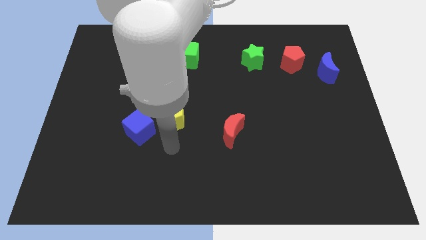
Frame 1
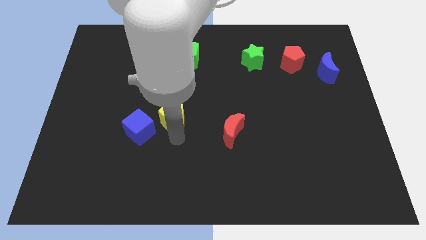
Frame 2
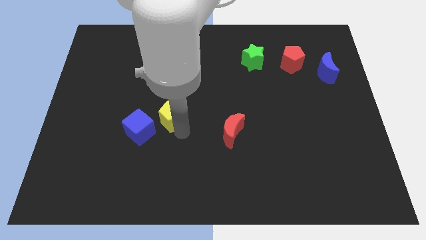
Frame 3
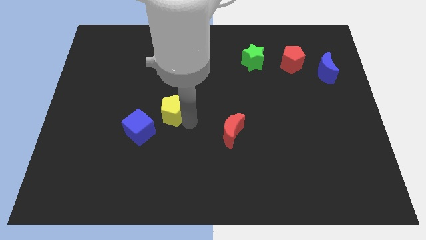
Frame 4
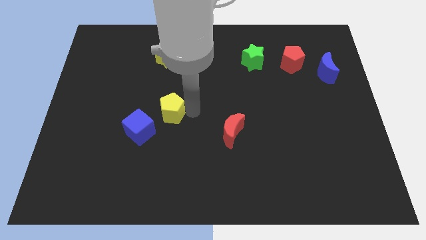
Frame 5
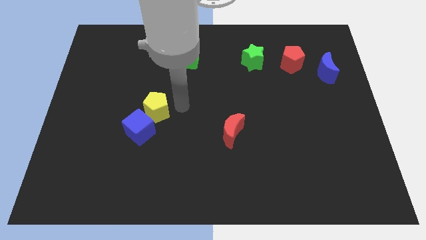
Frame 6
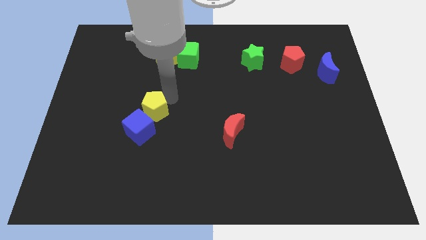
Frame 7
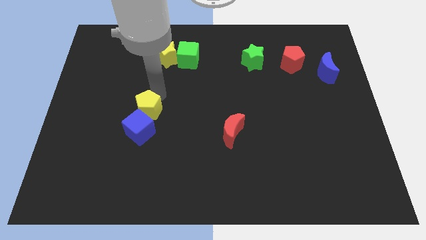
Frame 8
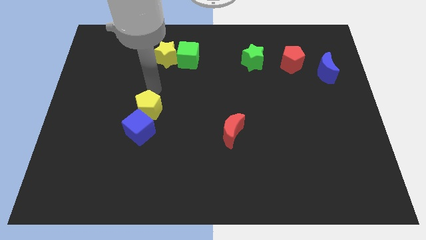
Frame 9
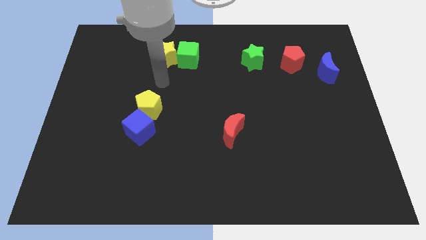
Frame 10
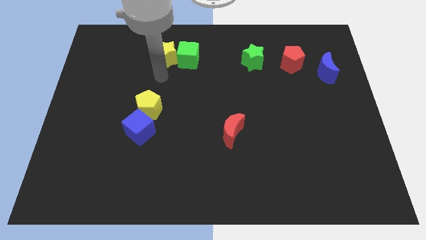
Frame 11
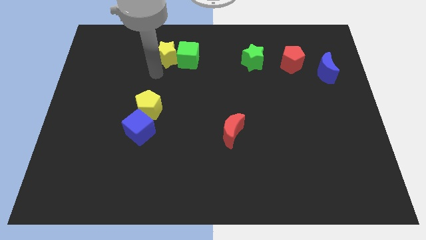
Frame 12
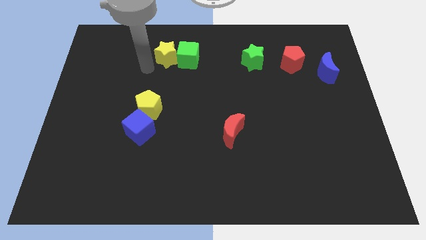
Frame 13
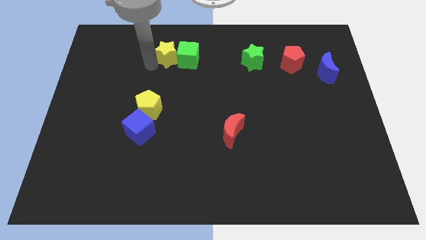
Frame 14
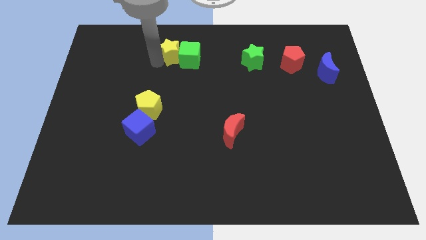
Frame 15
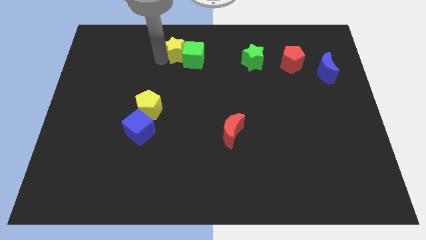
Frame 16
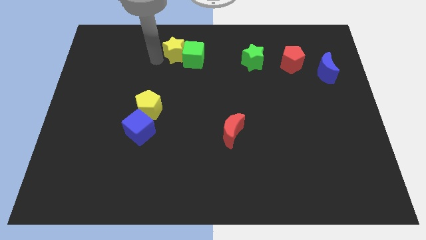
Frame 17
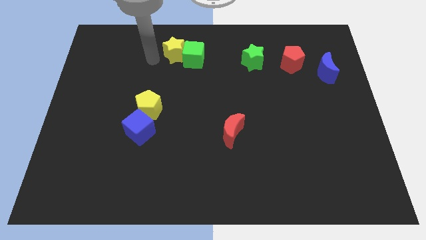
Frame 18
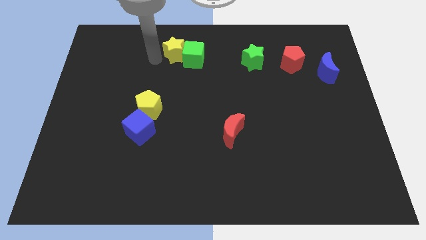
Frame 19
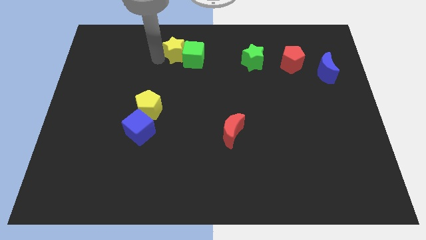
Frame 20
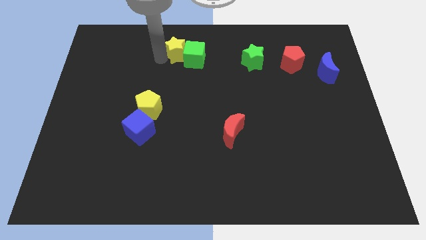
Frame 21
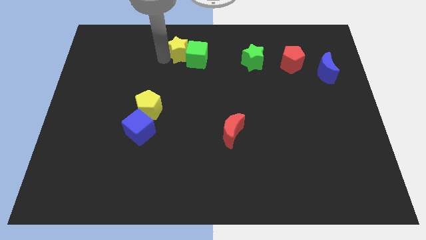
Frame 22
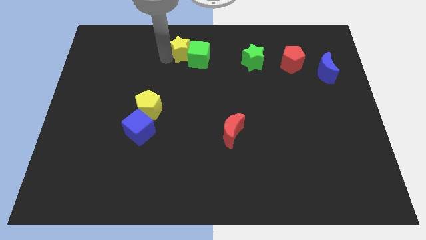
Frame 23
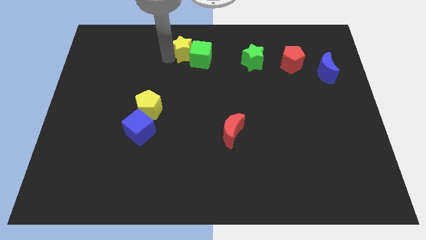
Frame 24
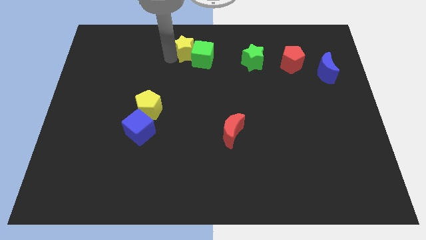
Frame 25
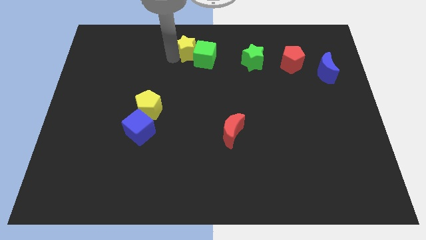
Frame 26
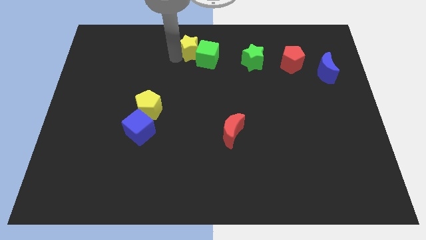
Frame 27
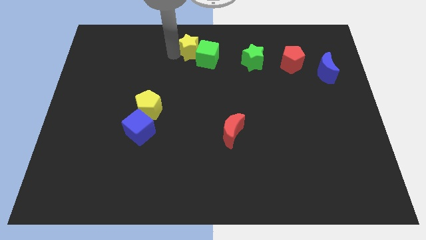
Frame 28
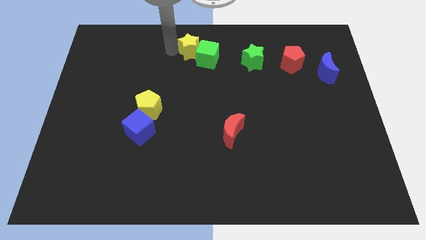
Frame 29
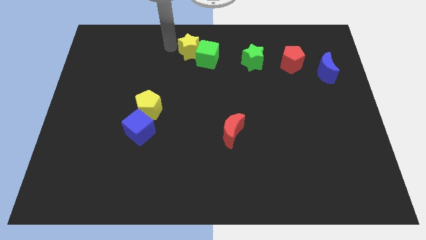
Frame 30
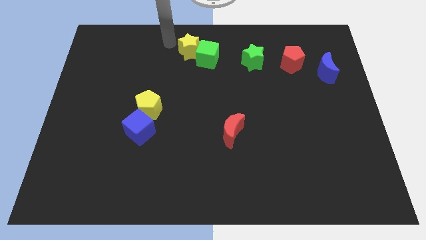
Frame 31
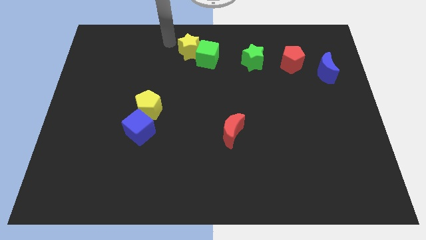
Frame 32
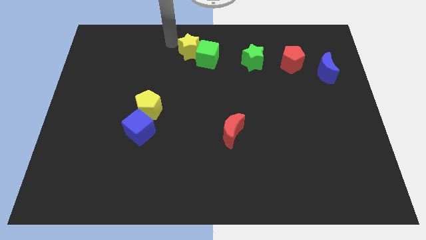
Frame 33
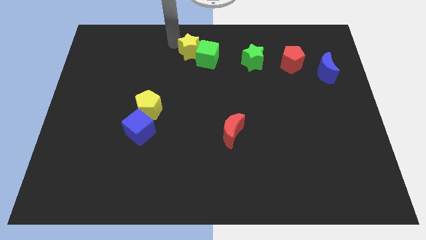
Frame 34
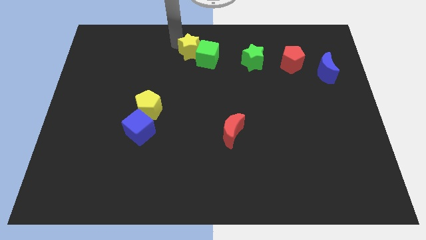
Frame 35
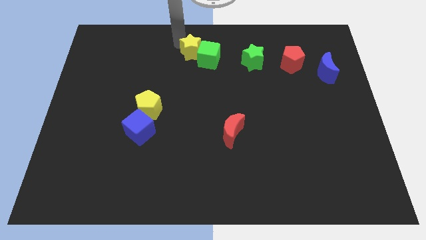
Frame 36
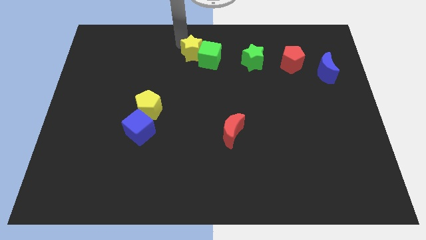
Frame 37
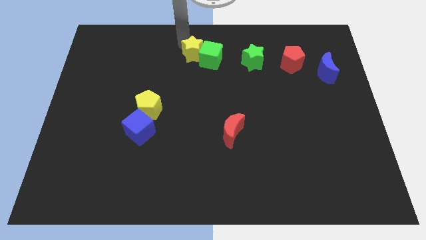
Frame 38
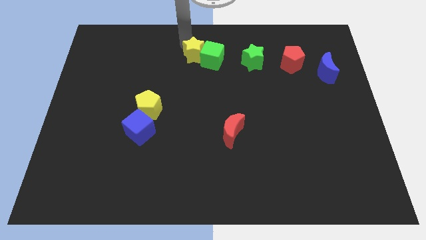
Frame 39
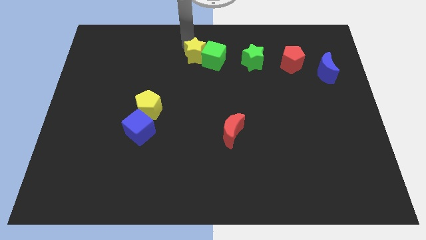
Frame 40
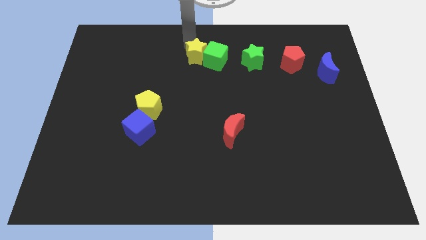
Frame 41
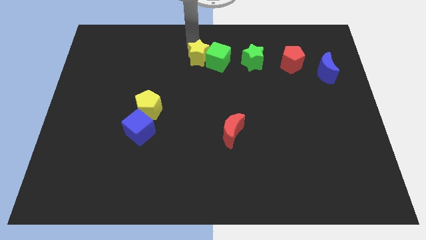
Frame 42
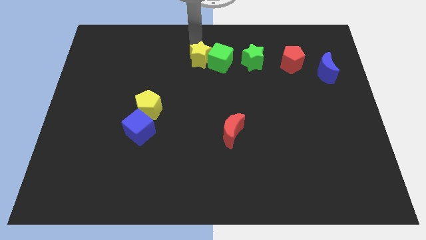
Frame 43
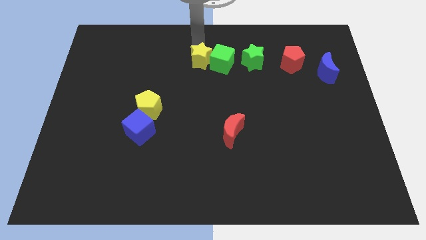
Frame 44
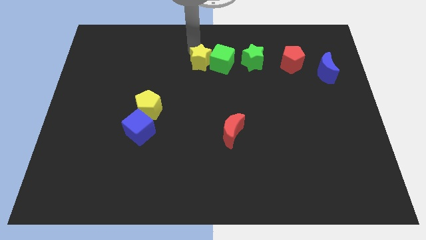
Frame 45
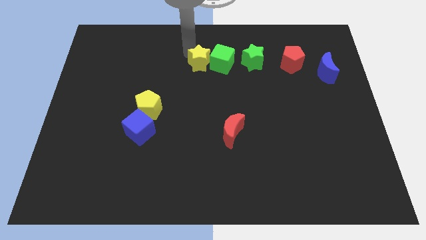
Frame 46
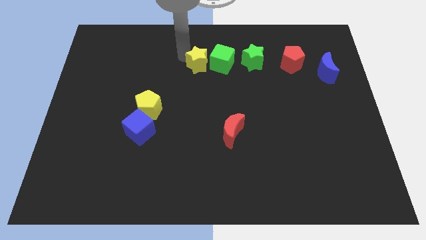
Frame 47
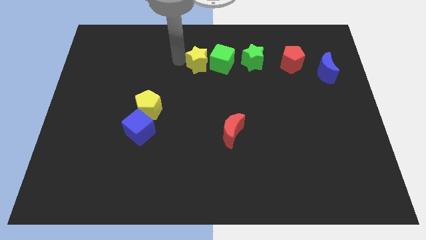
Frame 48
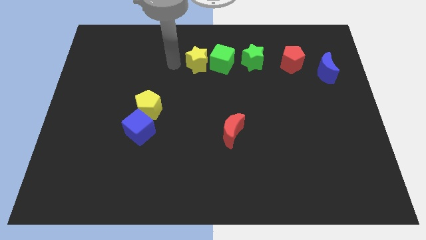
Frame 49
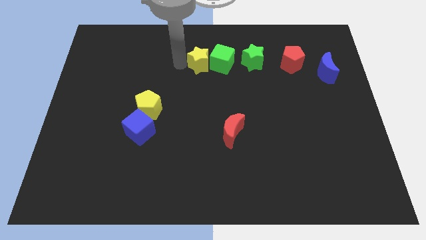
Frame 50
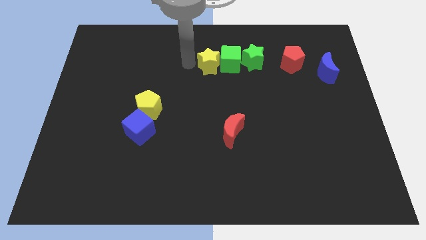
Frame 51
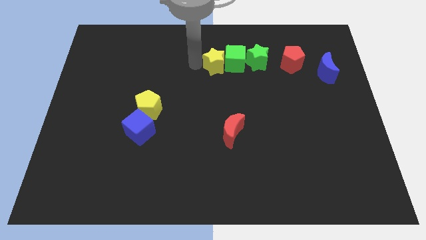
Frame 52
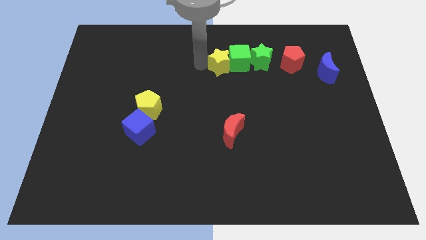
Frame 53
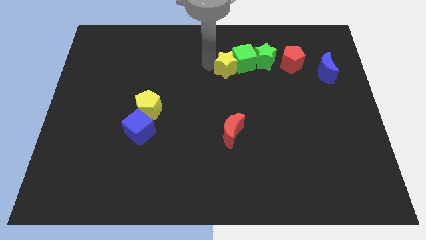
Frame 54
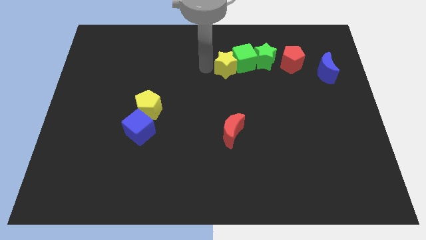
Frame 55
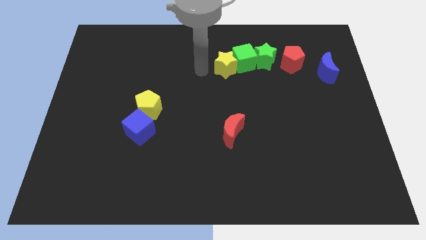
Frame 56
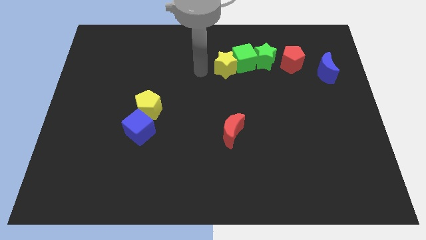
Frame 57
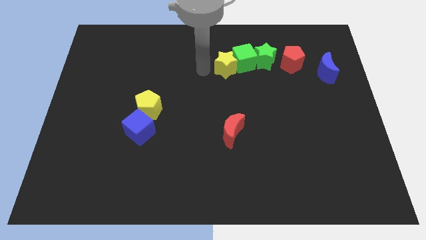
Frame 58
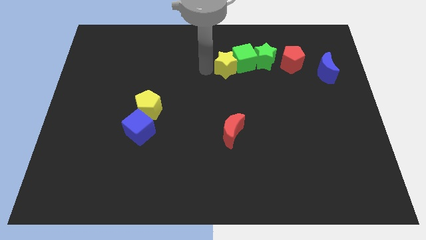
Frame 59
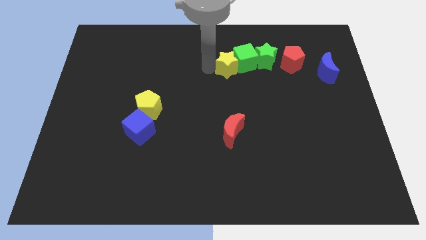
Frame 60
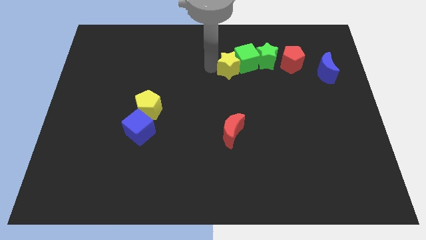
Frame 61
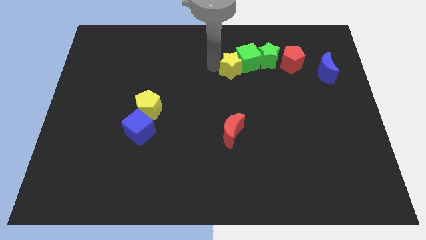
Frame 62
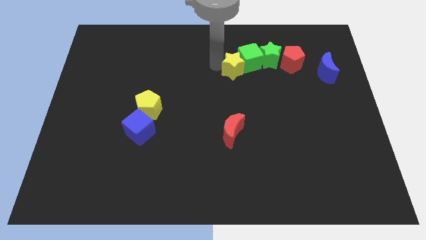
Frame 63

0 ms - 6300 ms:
put the yellow star to the left side of the red pentagon

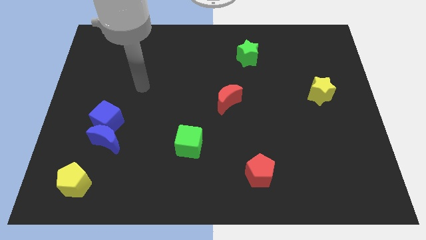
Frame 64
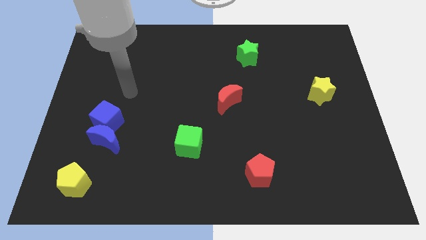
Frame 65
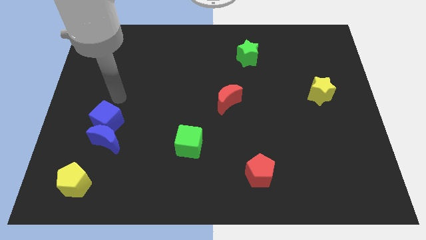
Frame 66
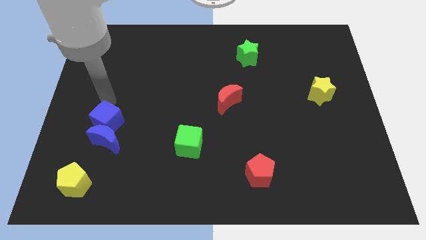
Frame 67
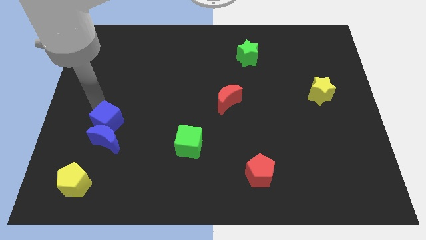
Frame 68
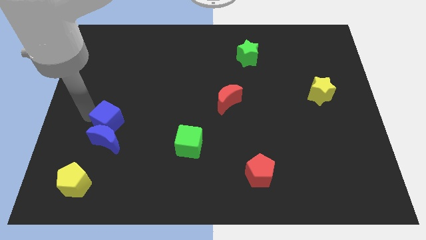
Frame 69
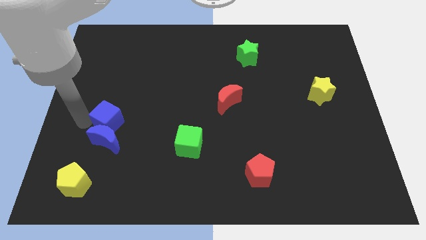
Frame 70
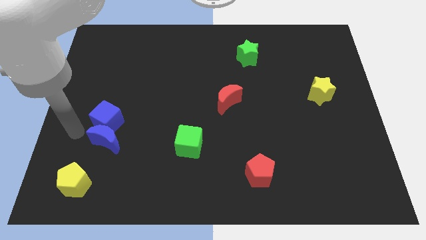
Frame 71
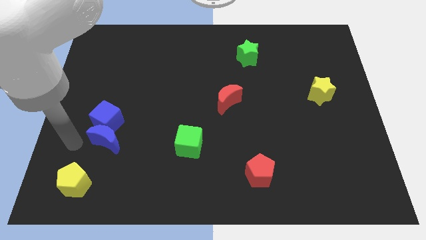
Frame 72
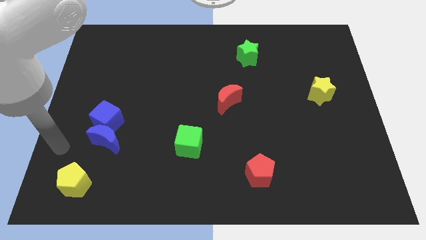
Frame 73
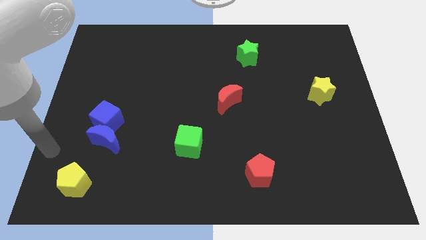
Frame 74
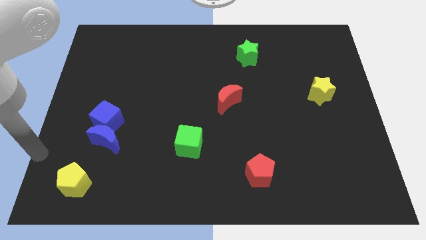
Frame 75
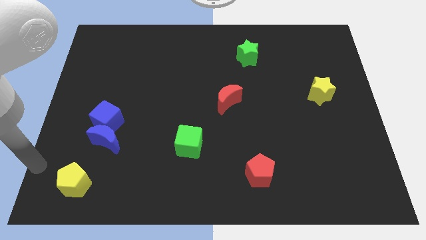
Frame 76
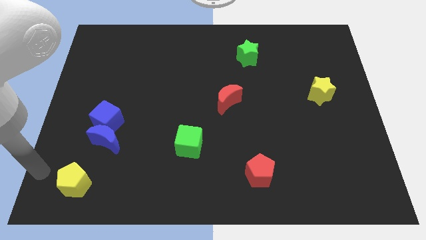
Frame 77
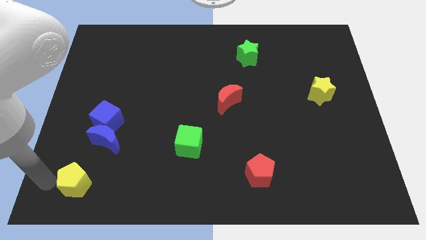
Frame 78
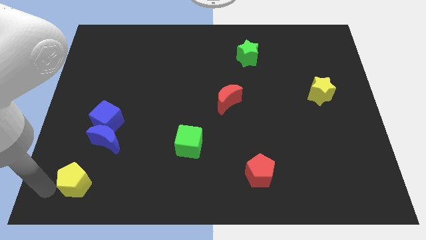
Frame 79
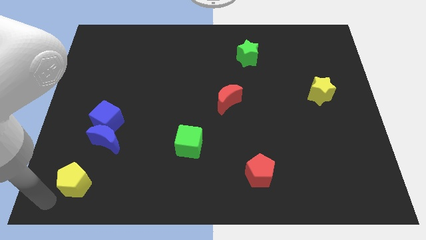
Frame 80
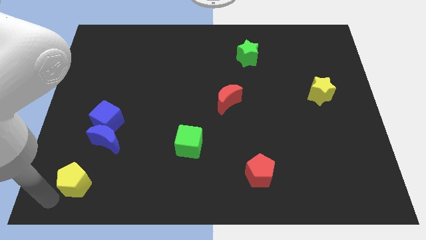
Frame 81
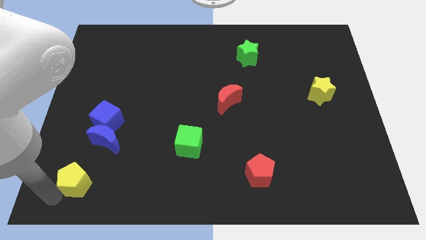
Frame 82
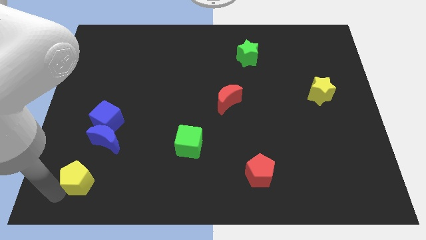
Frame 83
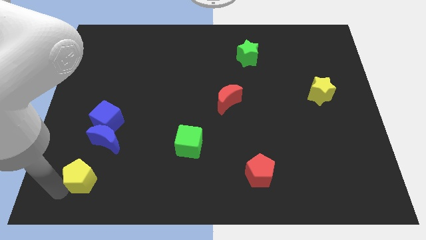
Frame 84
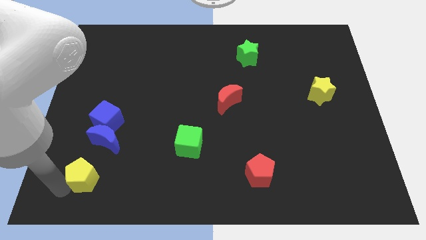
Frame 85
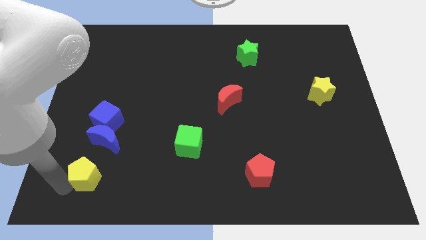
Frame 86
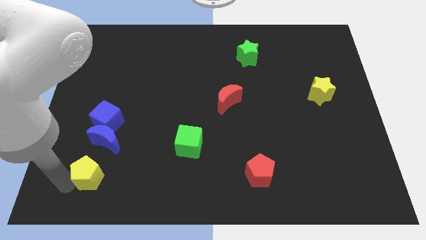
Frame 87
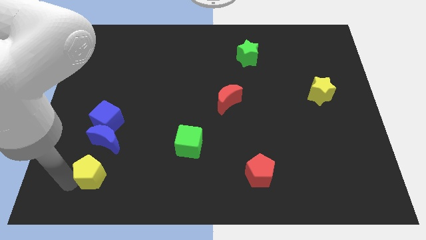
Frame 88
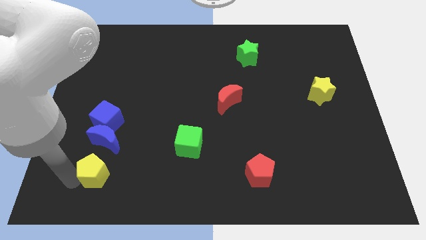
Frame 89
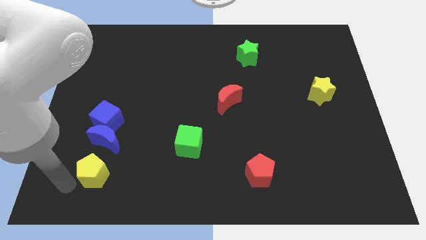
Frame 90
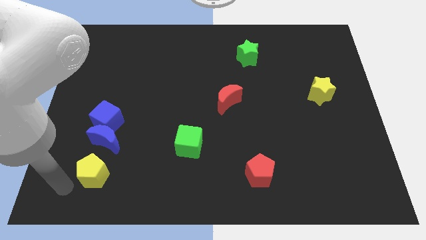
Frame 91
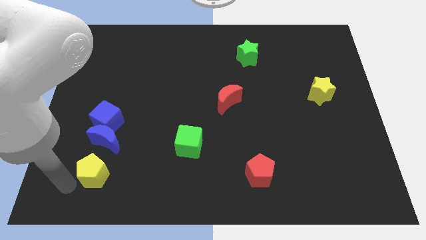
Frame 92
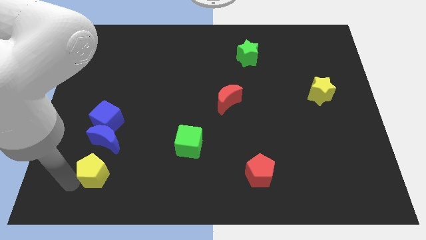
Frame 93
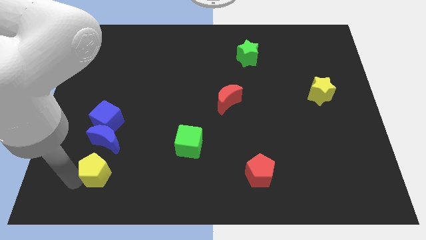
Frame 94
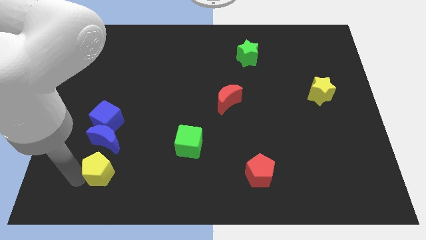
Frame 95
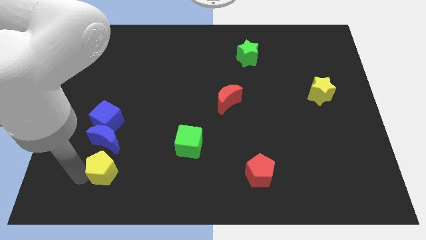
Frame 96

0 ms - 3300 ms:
push the yellow pentagon diagonally down and to the right of the blue moon
